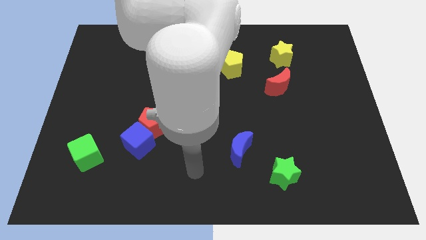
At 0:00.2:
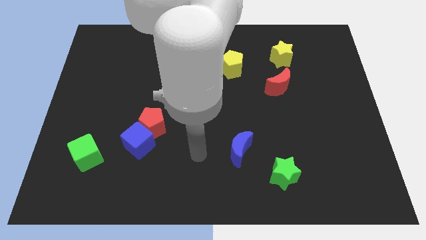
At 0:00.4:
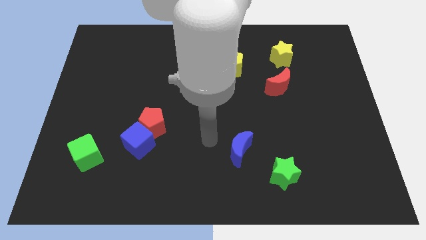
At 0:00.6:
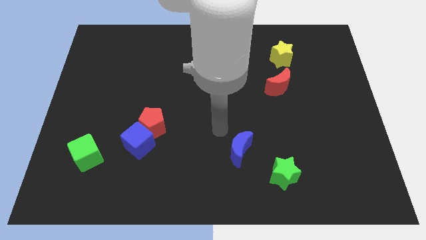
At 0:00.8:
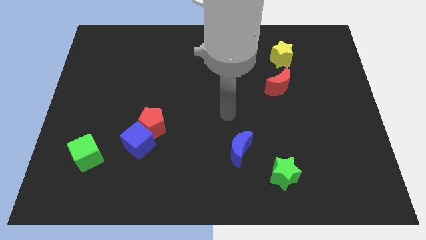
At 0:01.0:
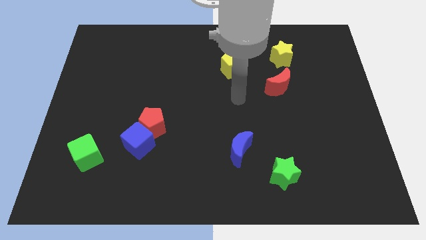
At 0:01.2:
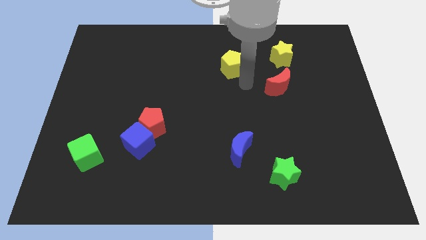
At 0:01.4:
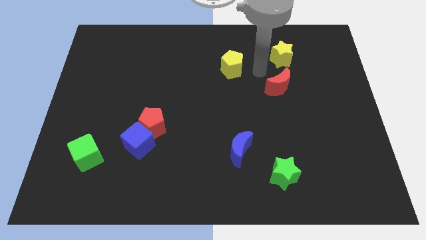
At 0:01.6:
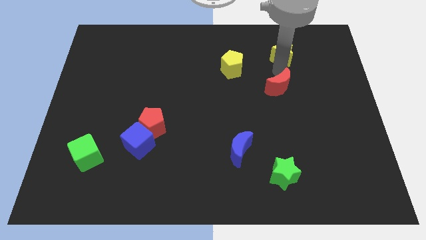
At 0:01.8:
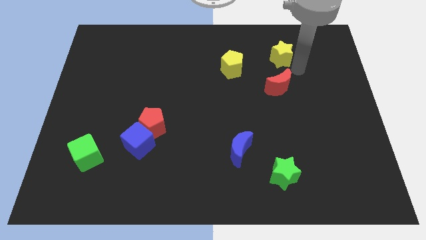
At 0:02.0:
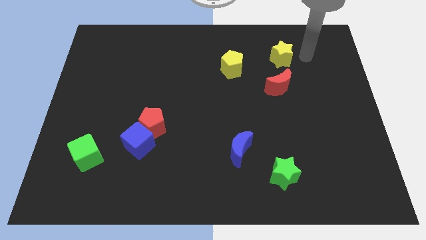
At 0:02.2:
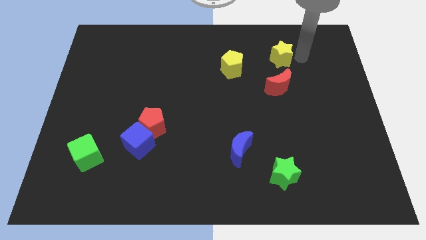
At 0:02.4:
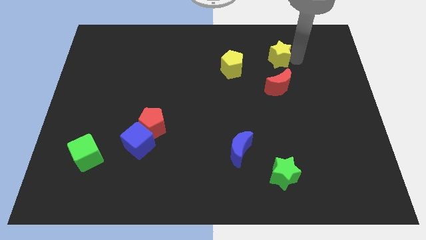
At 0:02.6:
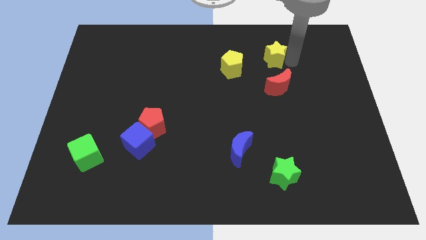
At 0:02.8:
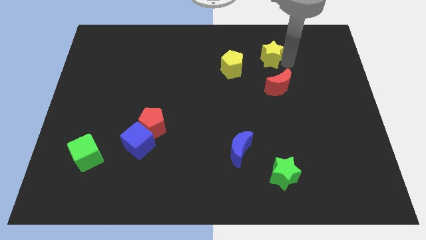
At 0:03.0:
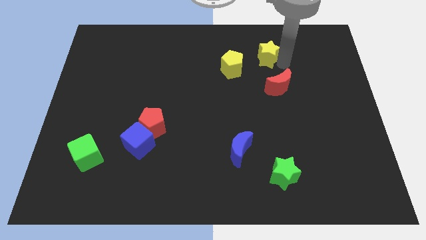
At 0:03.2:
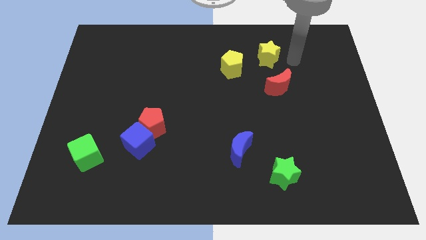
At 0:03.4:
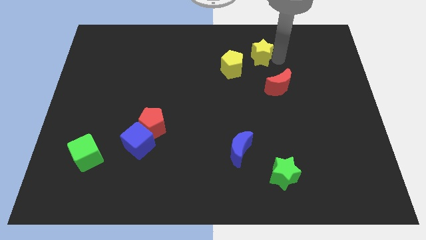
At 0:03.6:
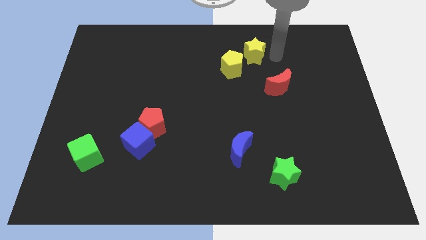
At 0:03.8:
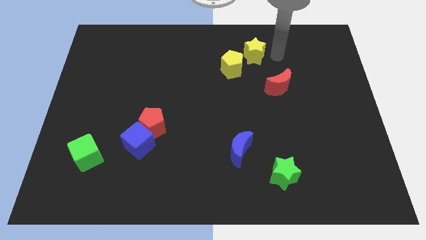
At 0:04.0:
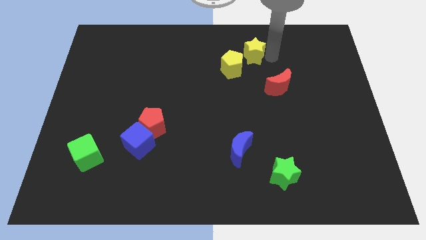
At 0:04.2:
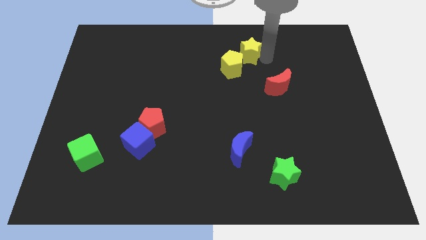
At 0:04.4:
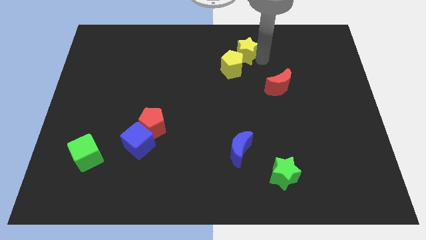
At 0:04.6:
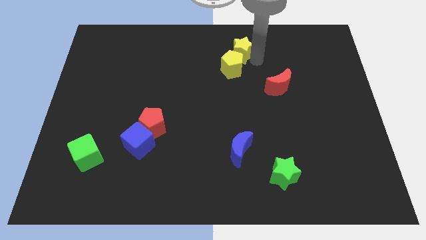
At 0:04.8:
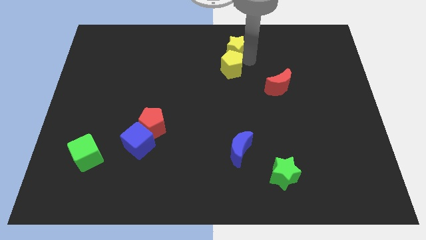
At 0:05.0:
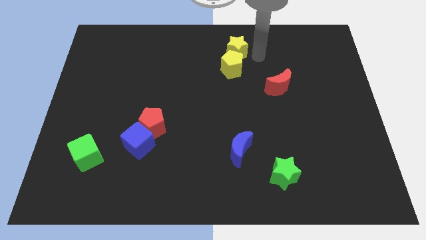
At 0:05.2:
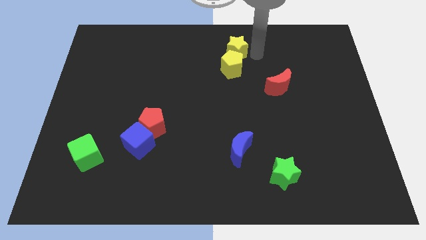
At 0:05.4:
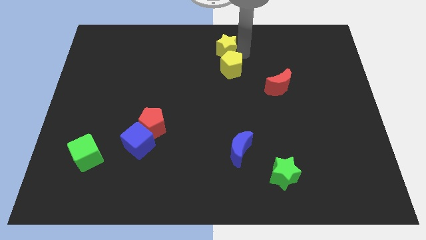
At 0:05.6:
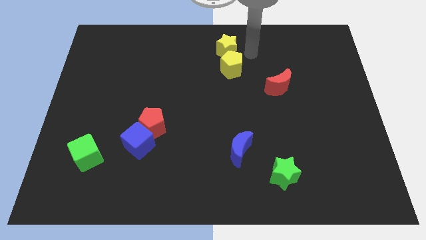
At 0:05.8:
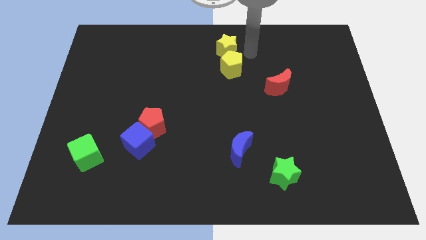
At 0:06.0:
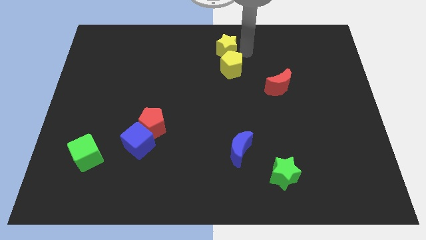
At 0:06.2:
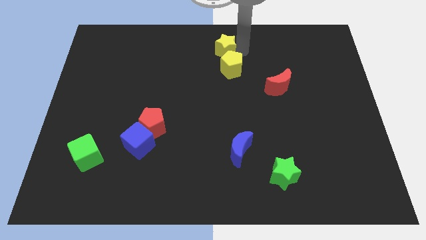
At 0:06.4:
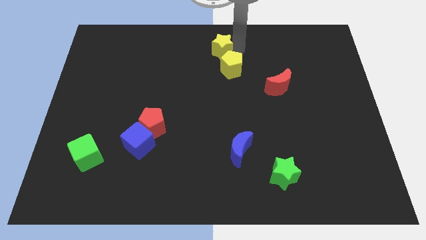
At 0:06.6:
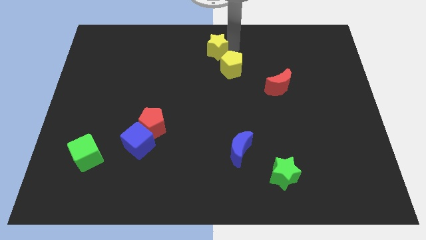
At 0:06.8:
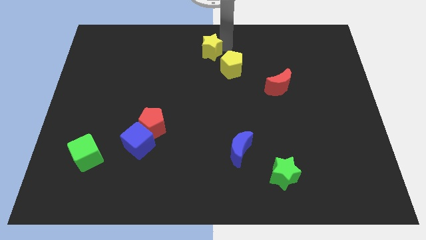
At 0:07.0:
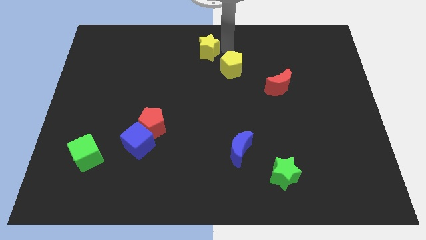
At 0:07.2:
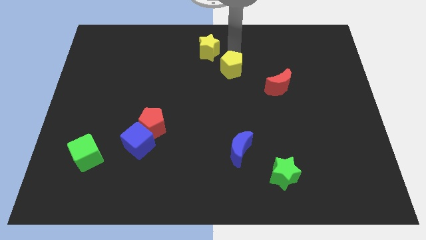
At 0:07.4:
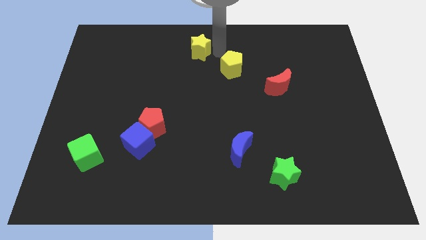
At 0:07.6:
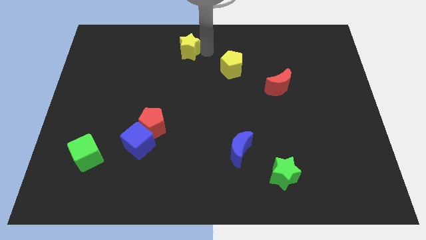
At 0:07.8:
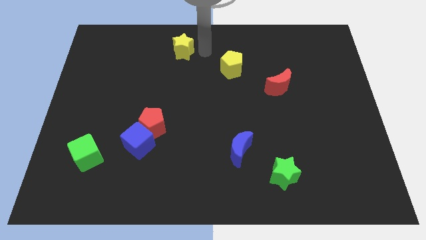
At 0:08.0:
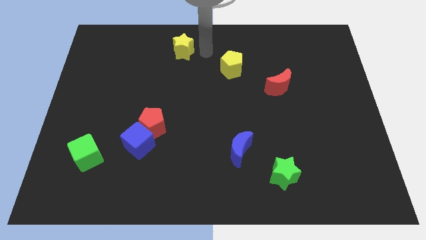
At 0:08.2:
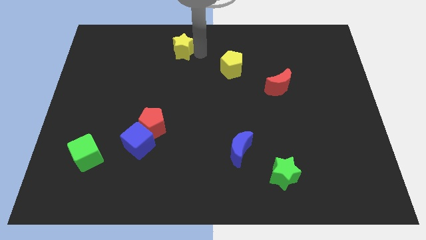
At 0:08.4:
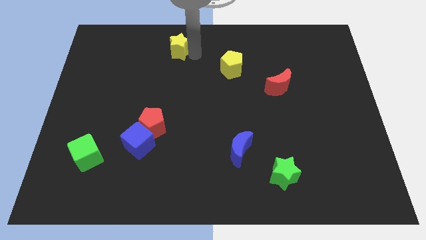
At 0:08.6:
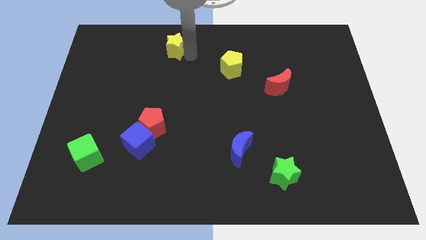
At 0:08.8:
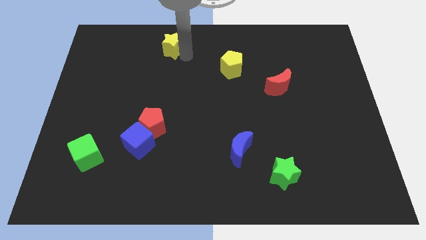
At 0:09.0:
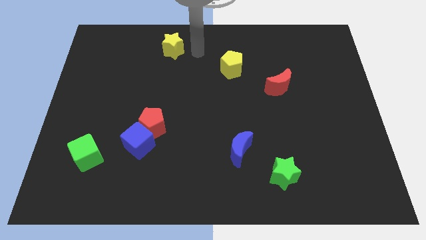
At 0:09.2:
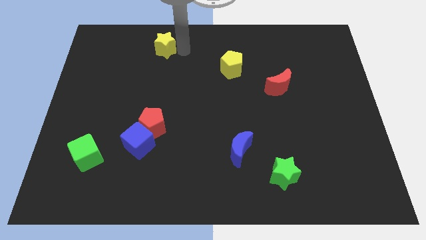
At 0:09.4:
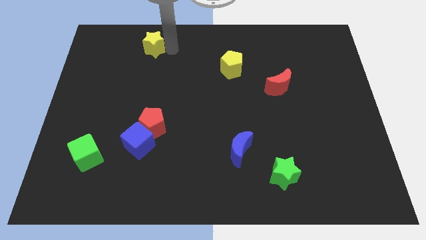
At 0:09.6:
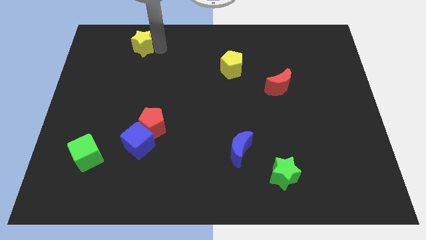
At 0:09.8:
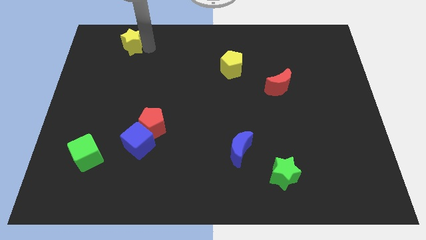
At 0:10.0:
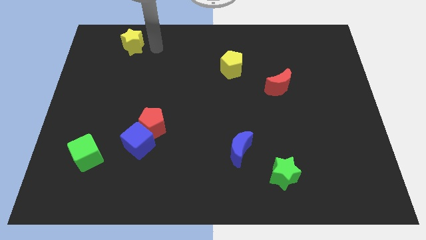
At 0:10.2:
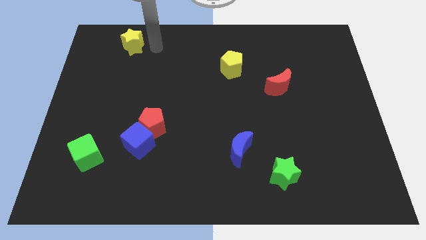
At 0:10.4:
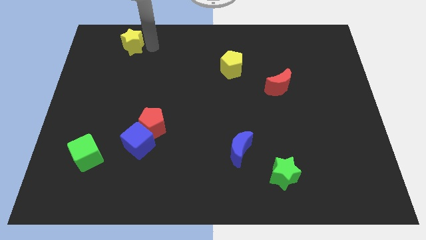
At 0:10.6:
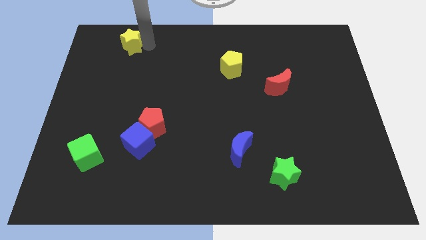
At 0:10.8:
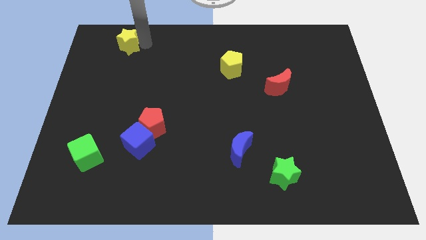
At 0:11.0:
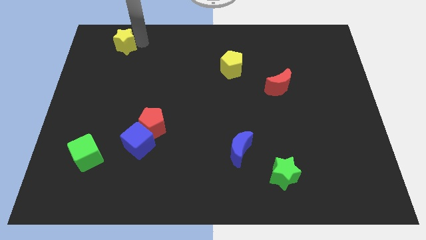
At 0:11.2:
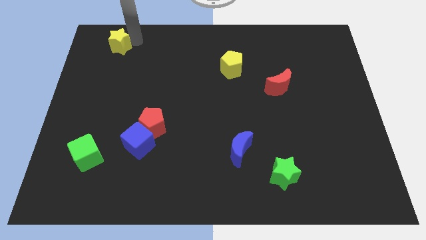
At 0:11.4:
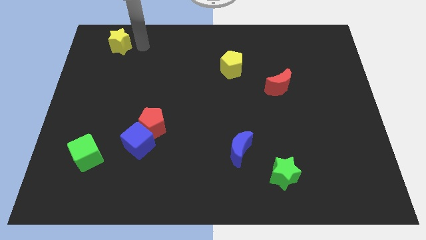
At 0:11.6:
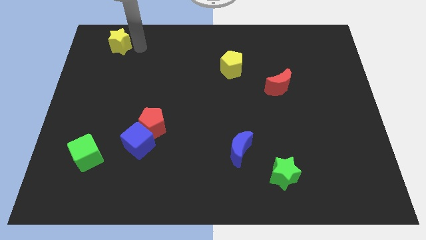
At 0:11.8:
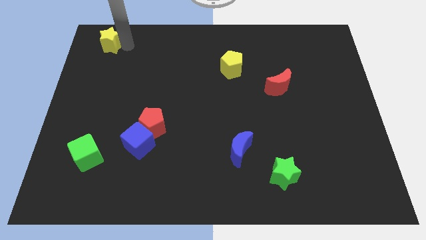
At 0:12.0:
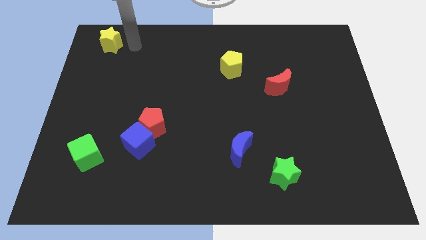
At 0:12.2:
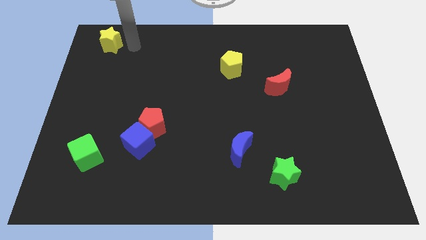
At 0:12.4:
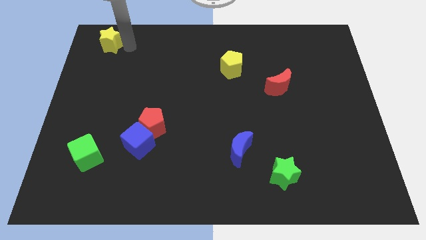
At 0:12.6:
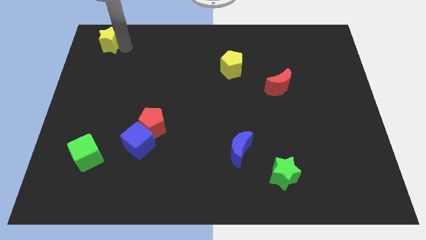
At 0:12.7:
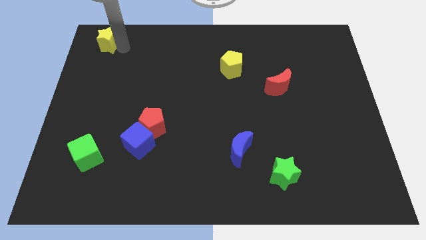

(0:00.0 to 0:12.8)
slide the yellow star to the top left
